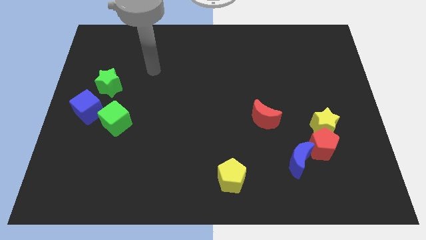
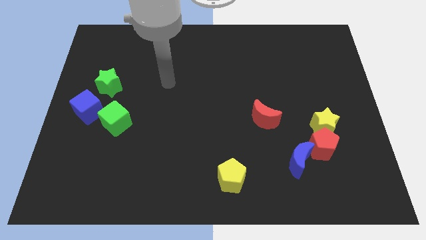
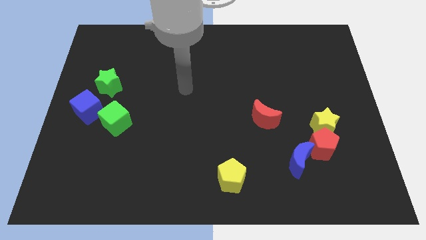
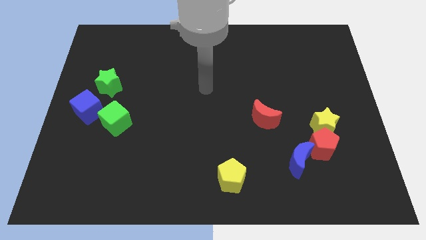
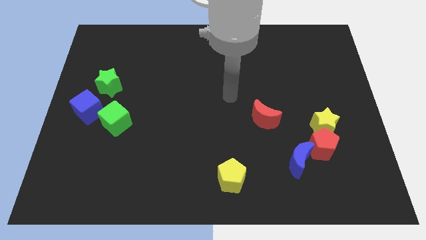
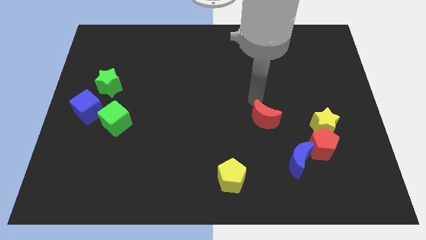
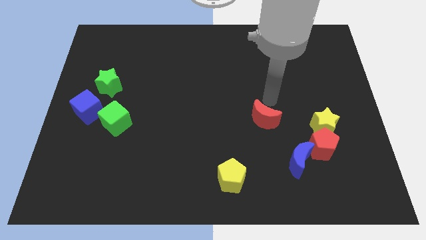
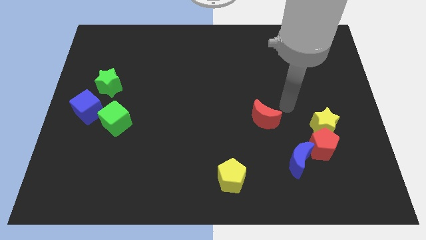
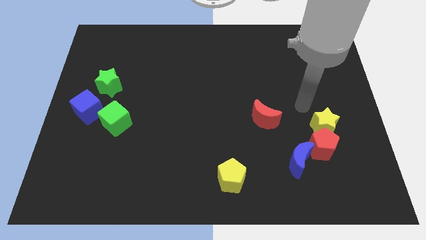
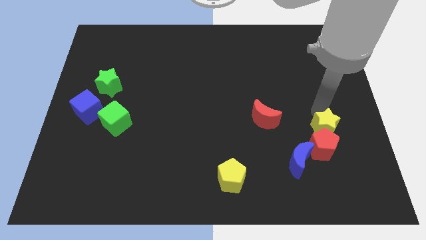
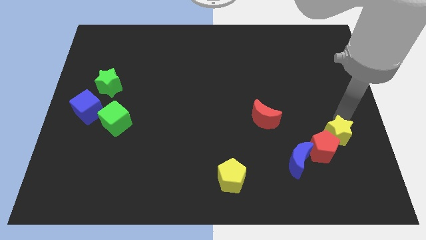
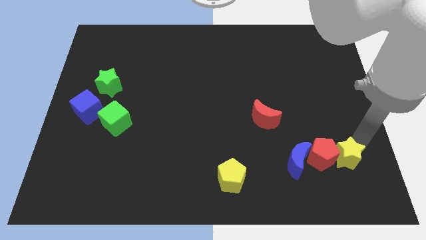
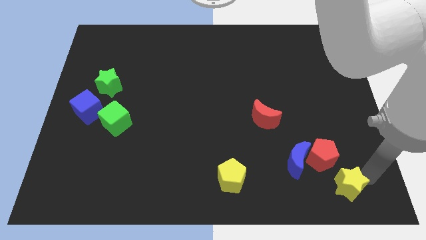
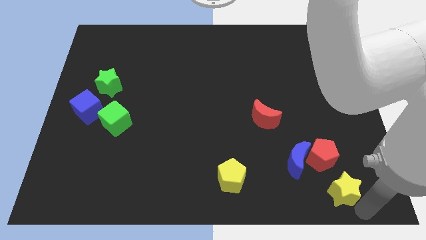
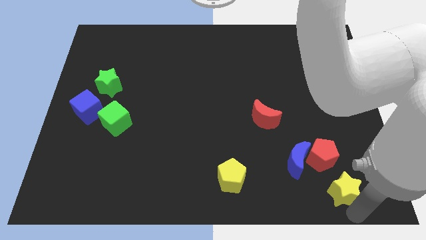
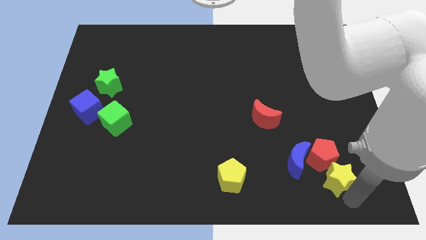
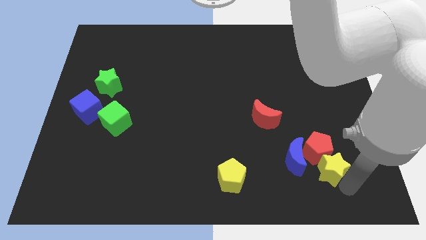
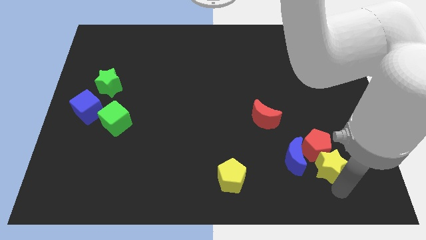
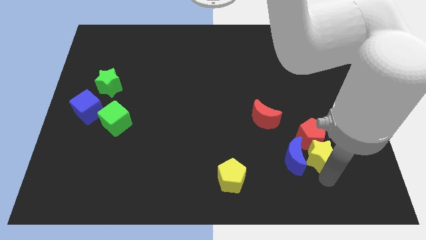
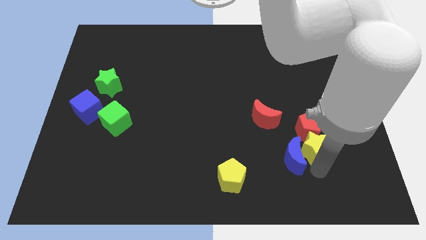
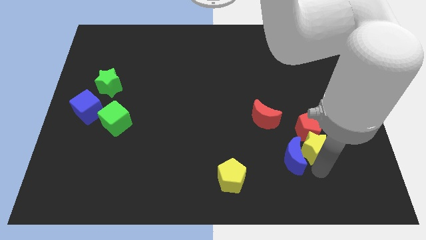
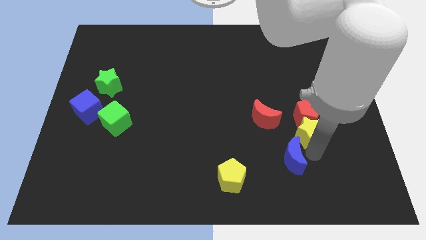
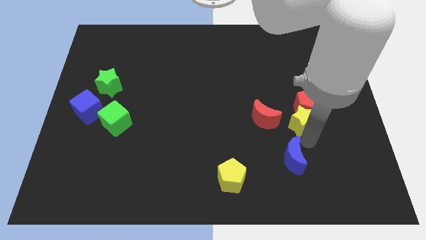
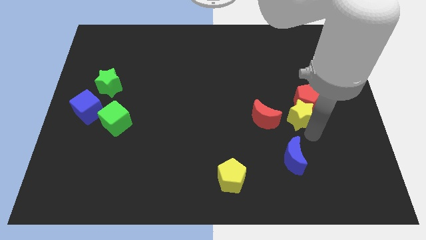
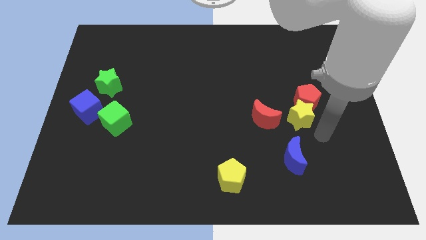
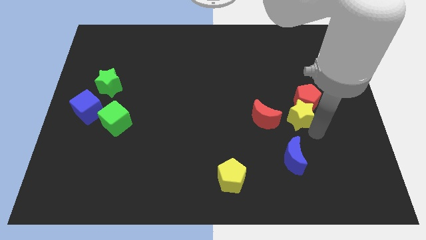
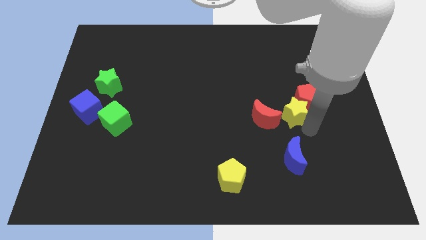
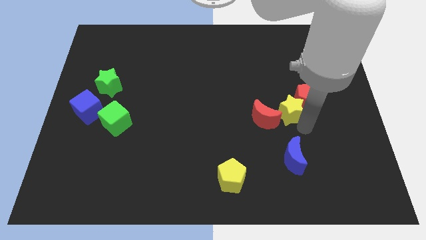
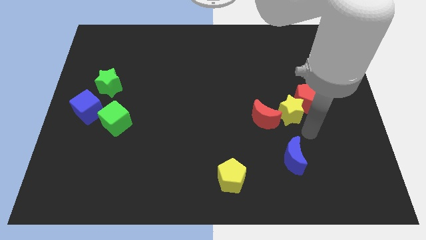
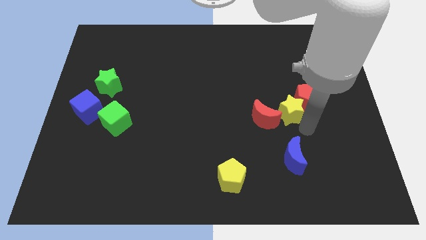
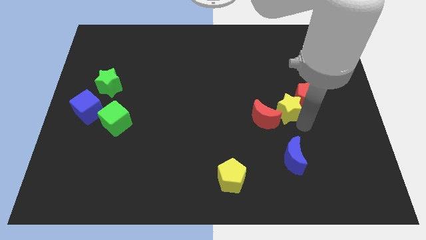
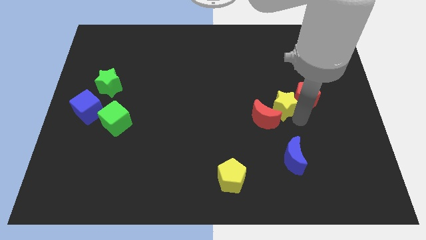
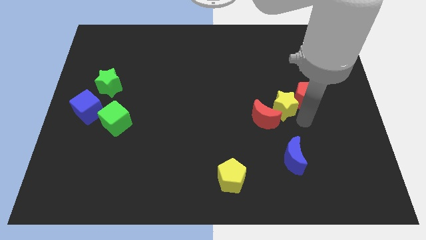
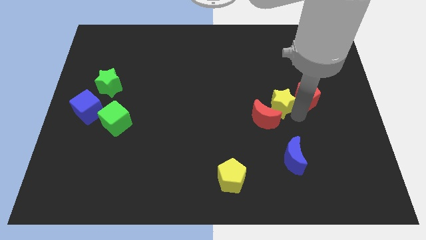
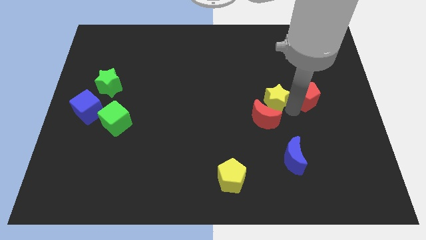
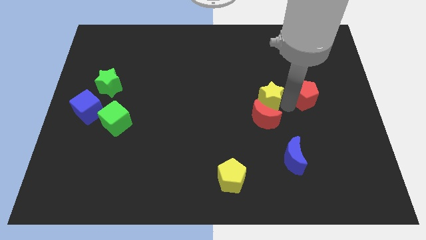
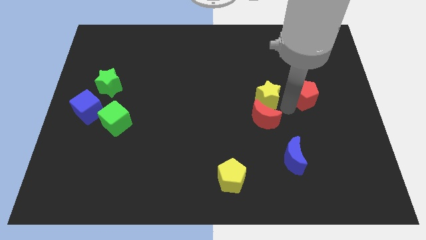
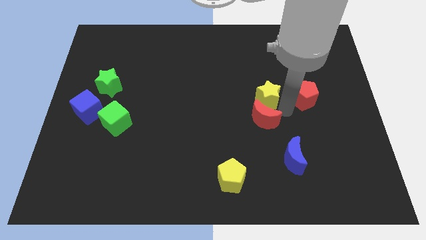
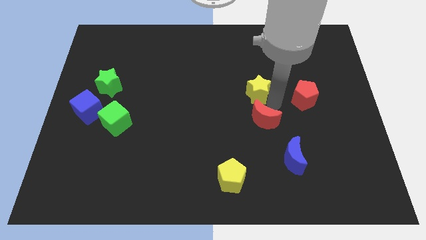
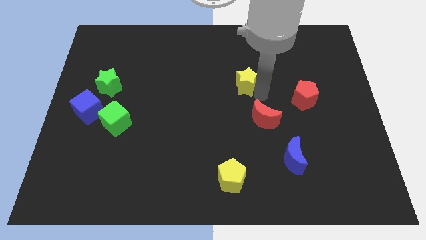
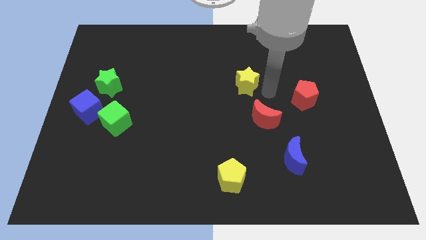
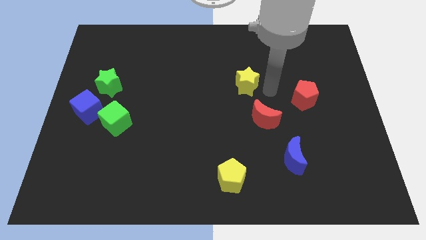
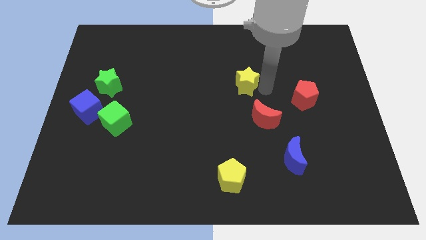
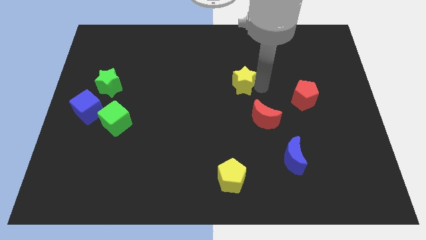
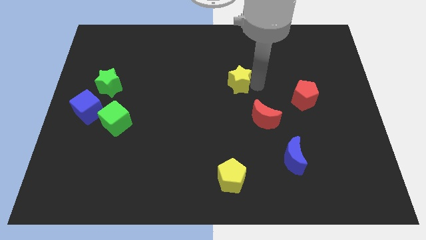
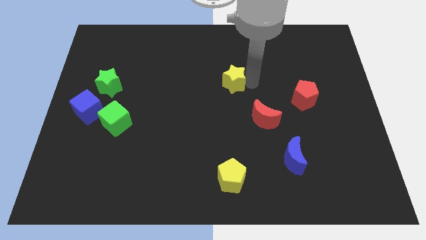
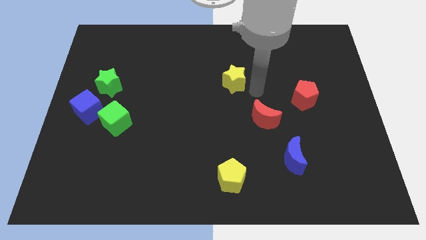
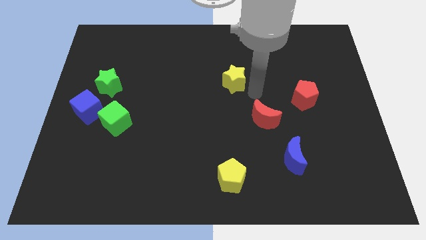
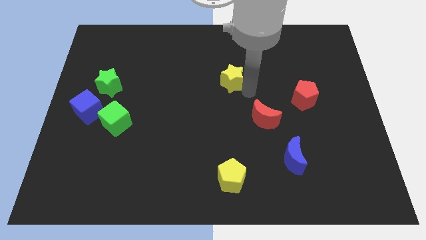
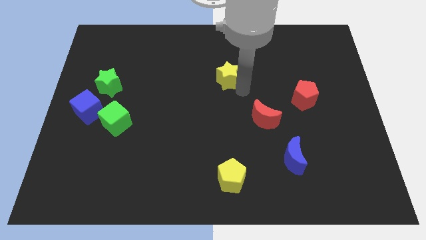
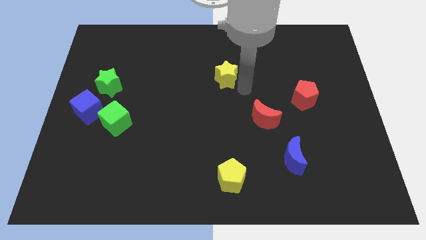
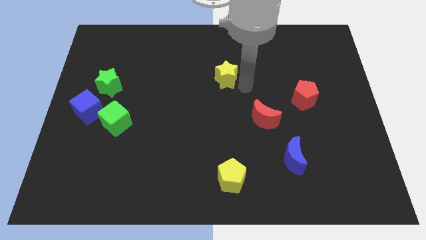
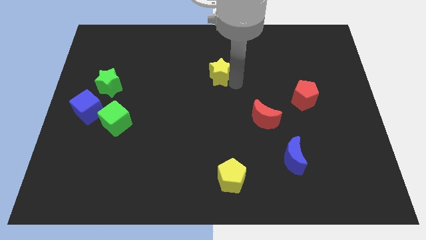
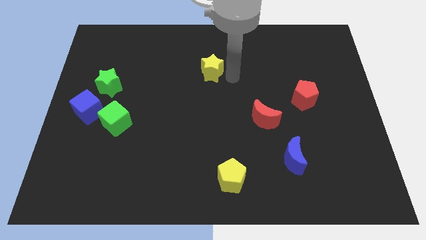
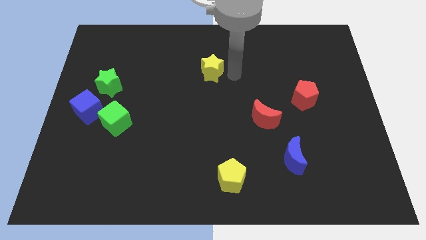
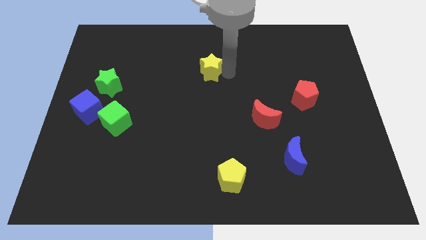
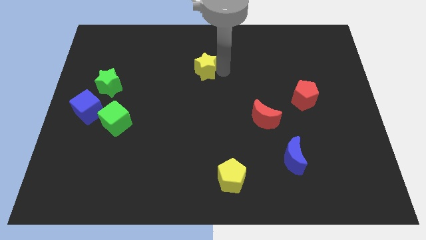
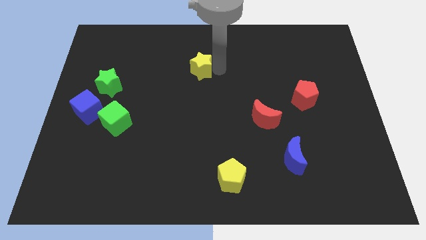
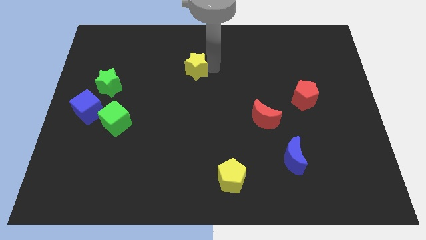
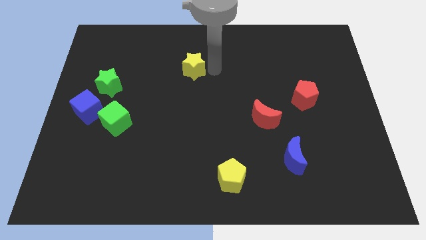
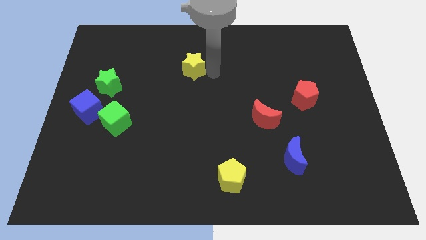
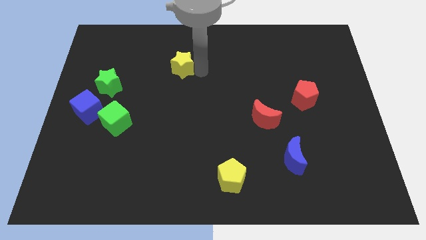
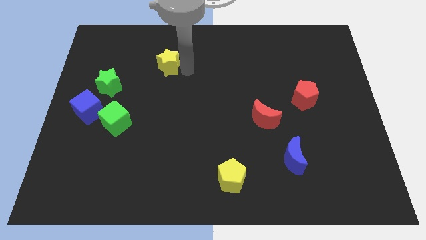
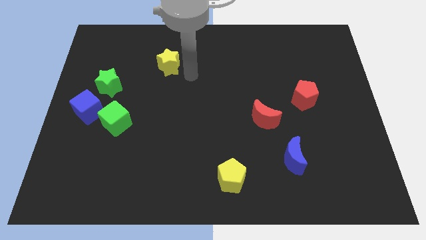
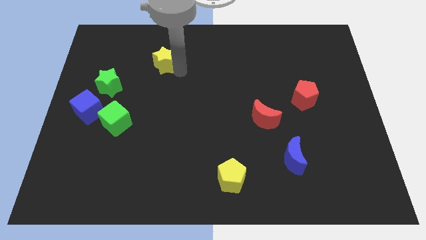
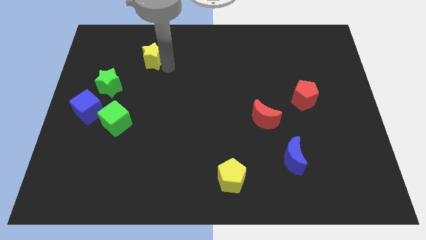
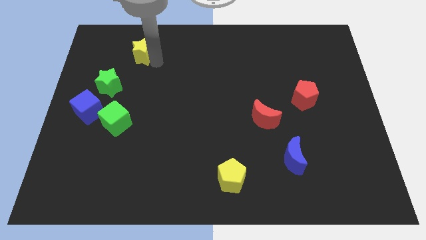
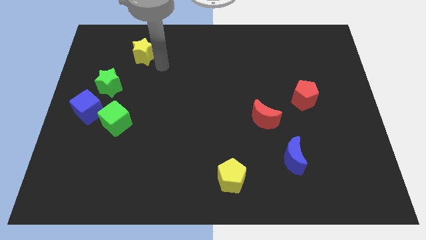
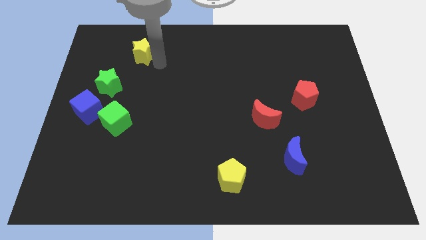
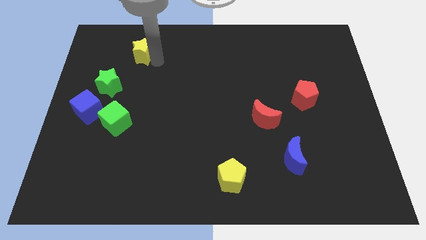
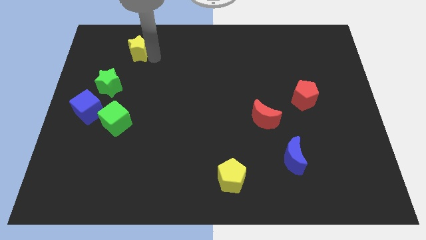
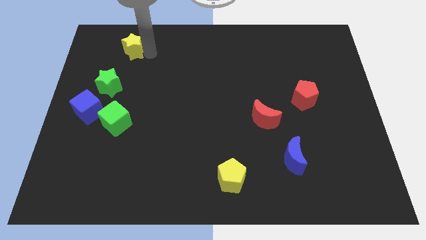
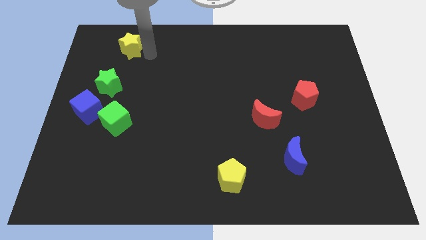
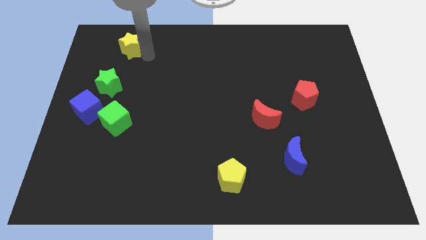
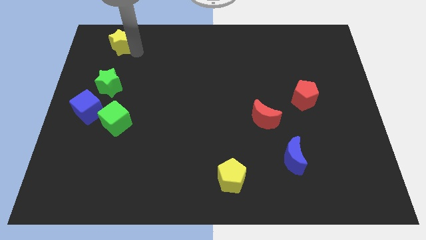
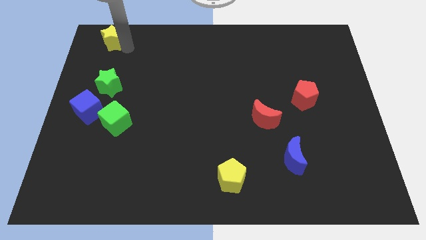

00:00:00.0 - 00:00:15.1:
push the yellow star to the upper left corner
